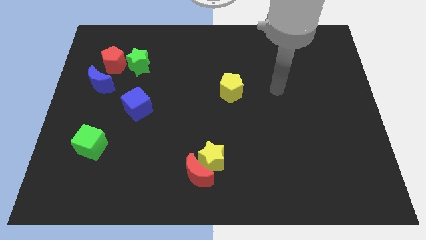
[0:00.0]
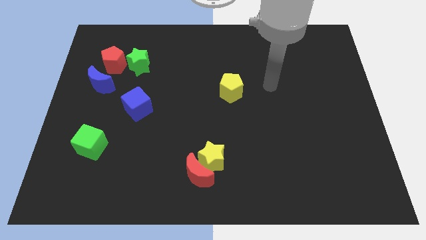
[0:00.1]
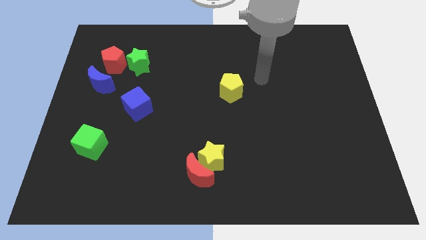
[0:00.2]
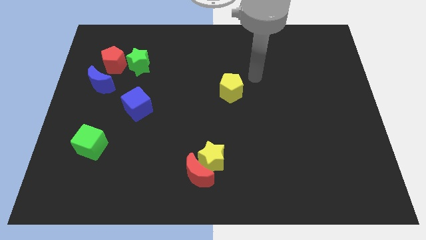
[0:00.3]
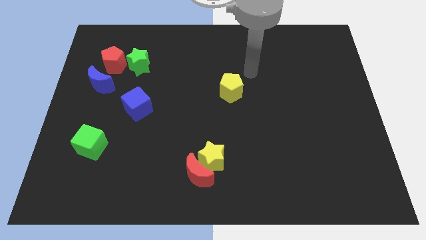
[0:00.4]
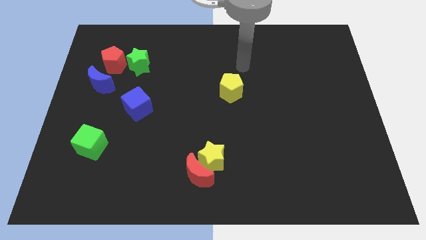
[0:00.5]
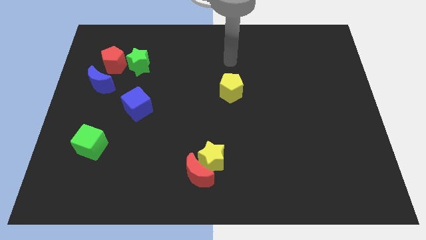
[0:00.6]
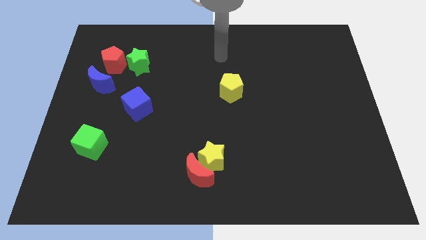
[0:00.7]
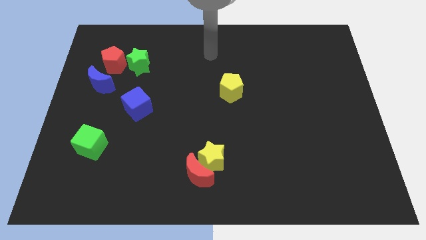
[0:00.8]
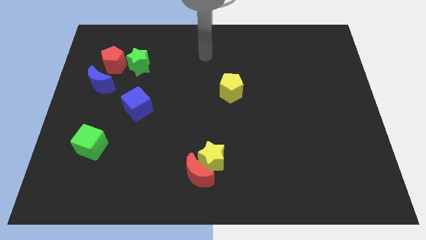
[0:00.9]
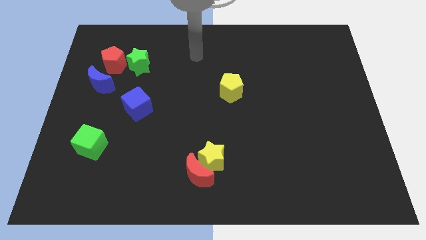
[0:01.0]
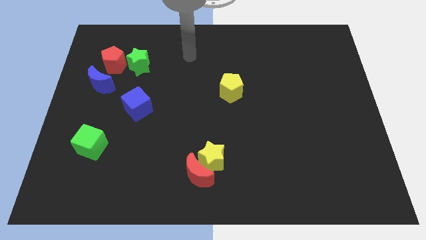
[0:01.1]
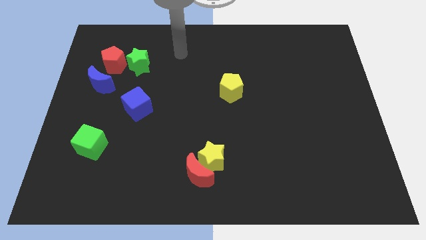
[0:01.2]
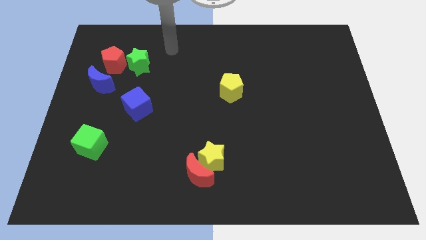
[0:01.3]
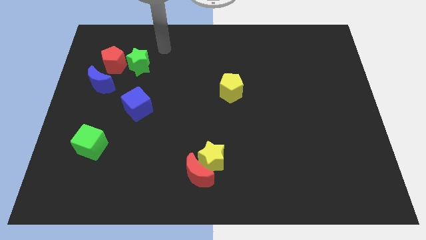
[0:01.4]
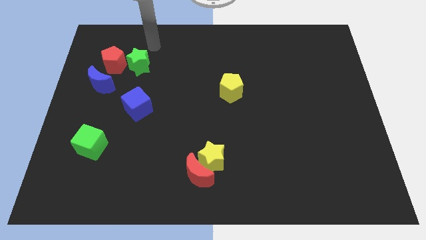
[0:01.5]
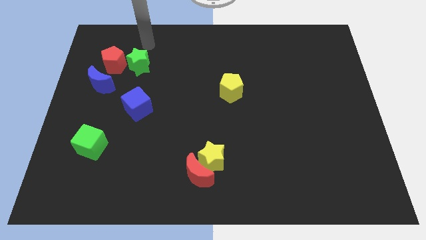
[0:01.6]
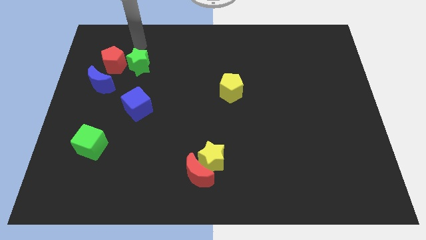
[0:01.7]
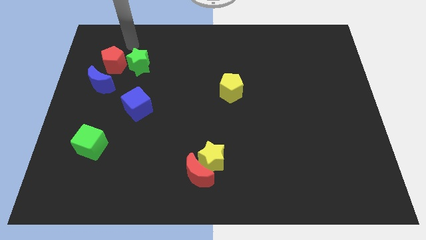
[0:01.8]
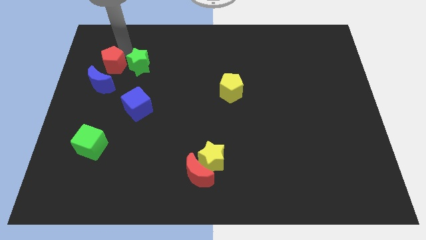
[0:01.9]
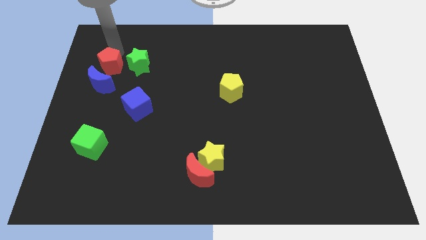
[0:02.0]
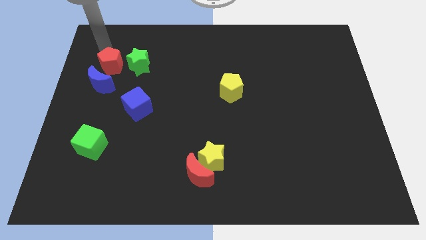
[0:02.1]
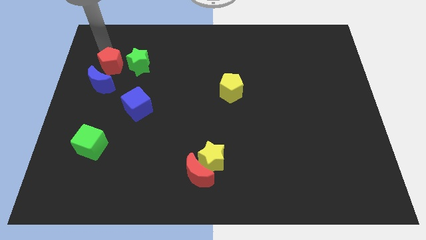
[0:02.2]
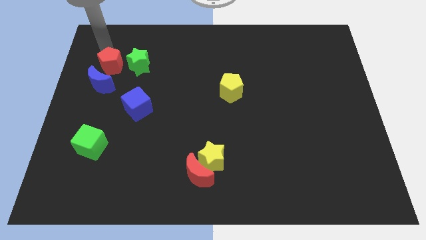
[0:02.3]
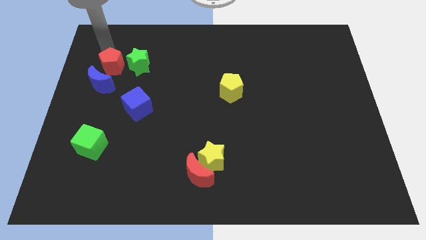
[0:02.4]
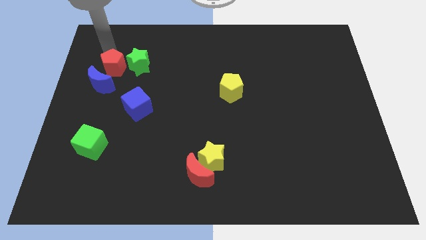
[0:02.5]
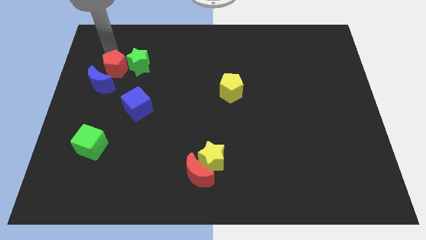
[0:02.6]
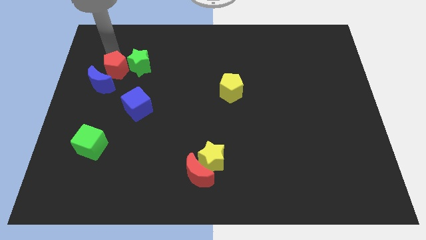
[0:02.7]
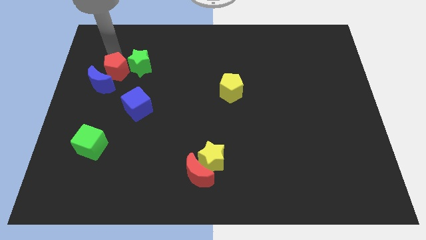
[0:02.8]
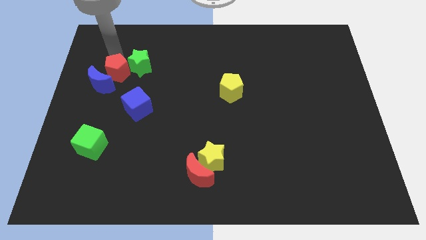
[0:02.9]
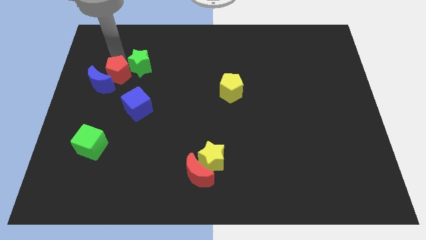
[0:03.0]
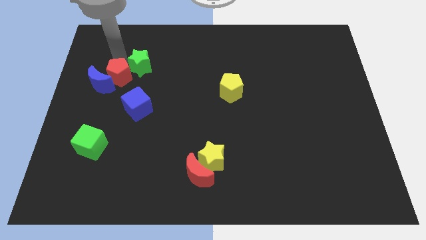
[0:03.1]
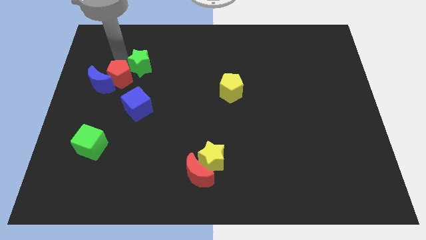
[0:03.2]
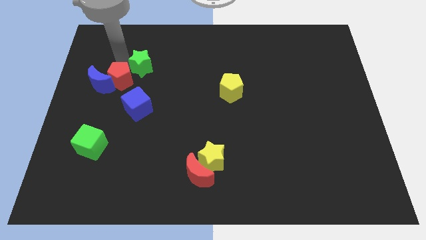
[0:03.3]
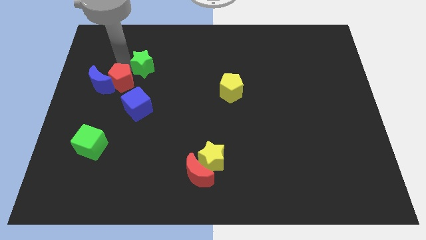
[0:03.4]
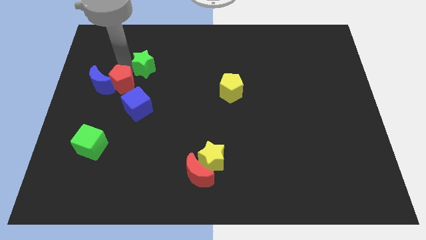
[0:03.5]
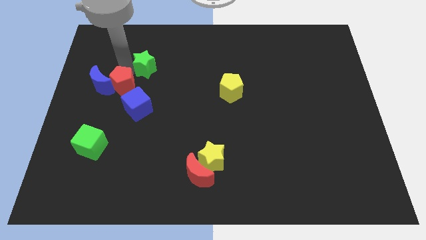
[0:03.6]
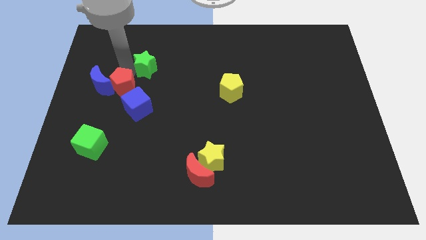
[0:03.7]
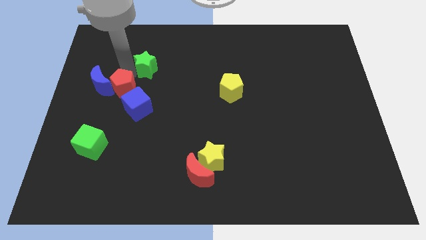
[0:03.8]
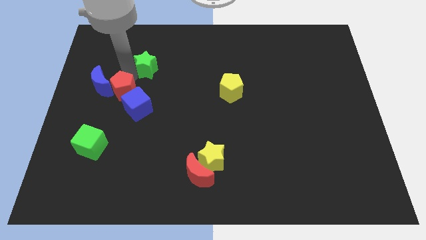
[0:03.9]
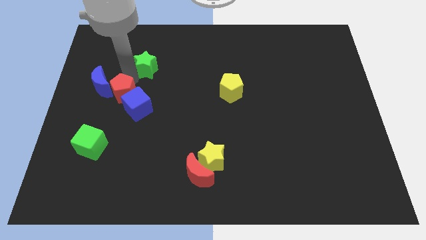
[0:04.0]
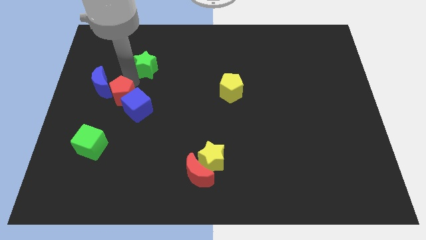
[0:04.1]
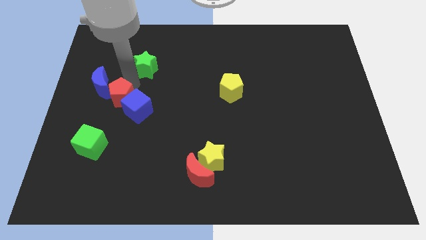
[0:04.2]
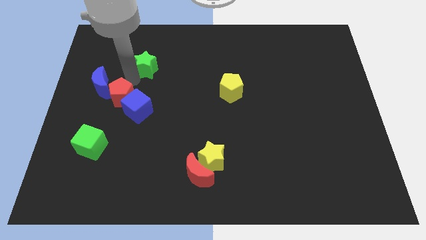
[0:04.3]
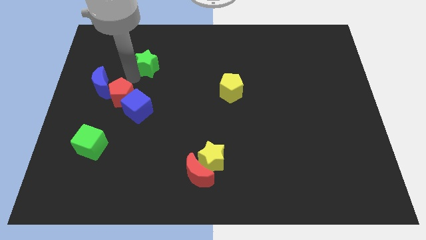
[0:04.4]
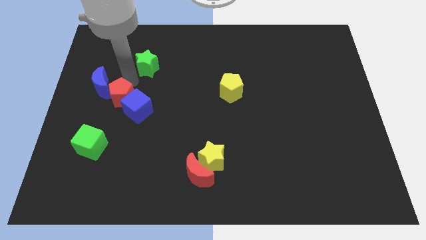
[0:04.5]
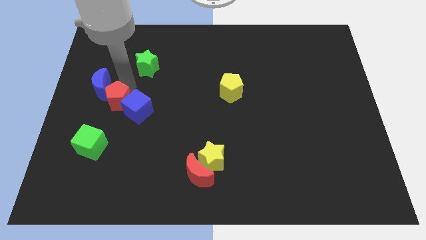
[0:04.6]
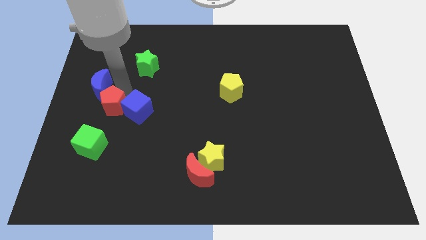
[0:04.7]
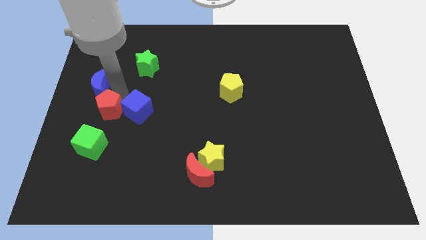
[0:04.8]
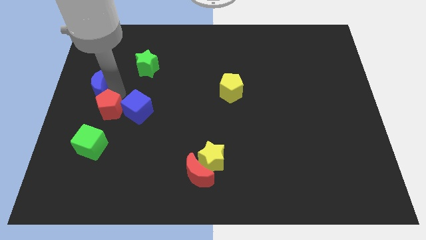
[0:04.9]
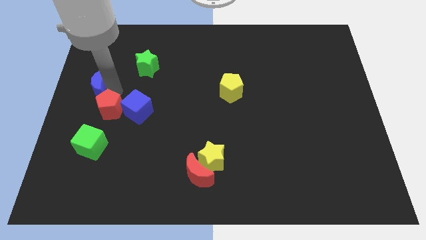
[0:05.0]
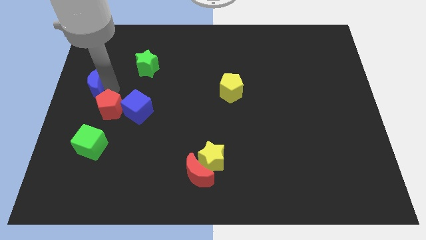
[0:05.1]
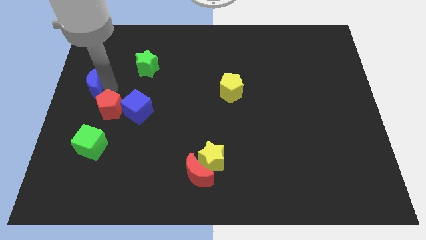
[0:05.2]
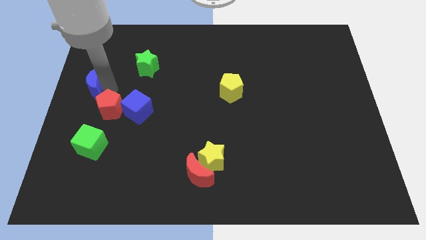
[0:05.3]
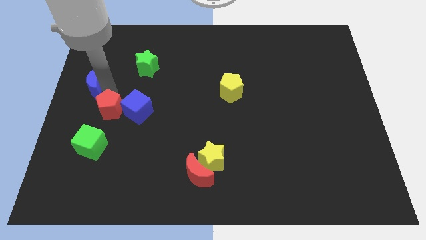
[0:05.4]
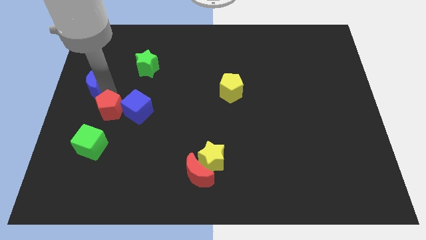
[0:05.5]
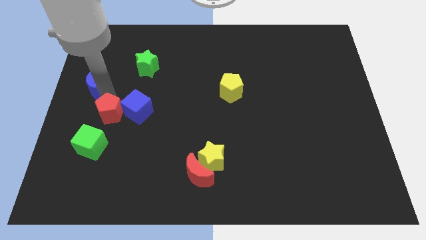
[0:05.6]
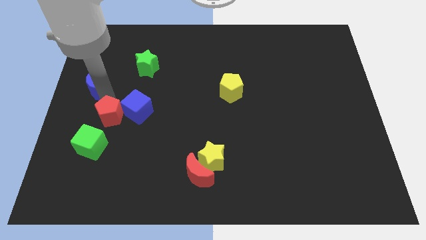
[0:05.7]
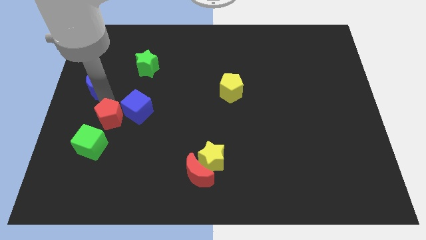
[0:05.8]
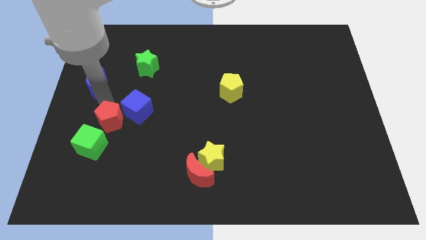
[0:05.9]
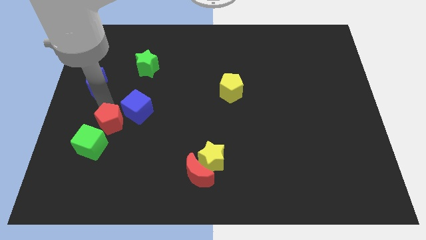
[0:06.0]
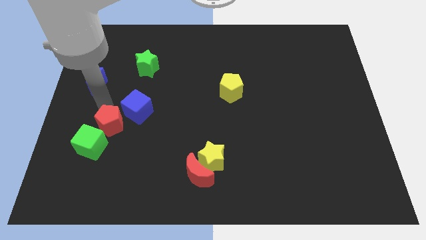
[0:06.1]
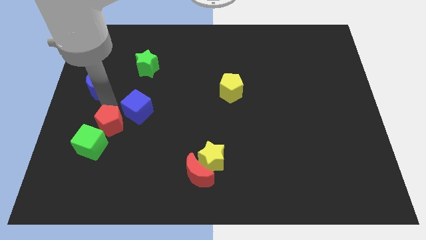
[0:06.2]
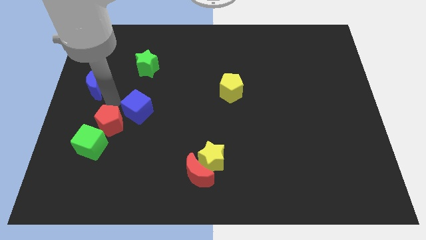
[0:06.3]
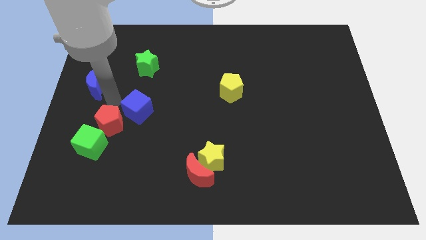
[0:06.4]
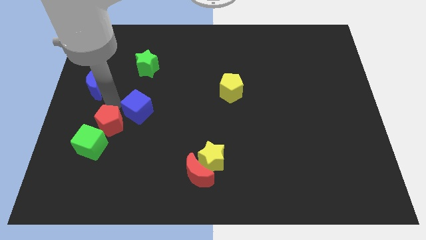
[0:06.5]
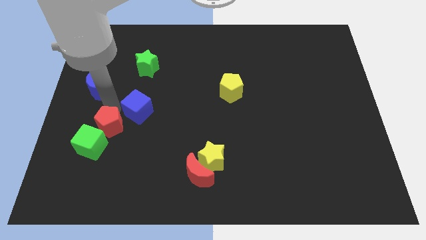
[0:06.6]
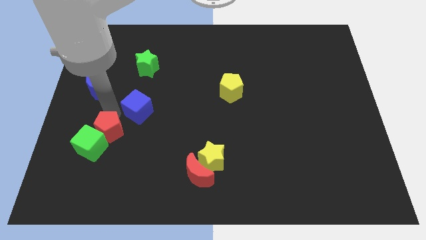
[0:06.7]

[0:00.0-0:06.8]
push the red pentagon downwards

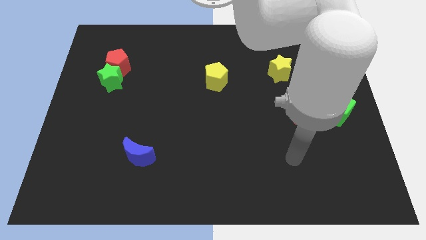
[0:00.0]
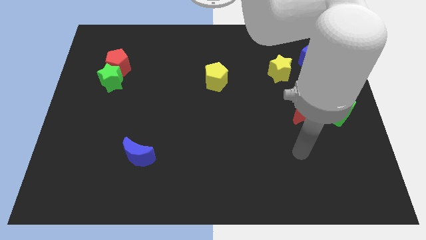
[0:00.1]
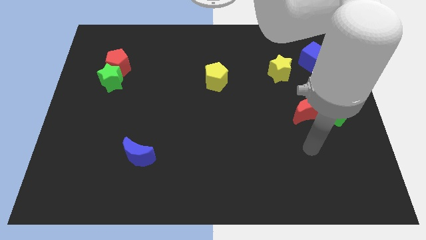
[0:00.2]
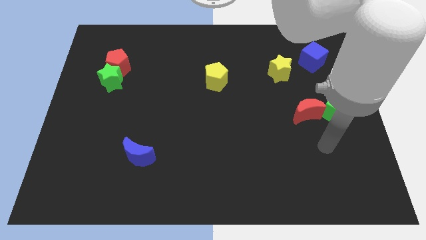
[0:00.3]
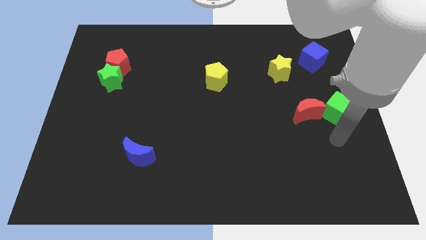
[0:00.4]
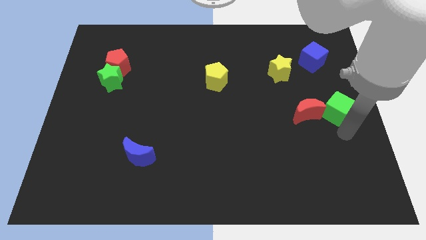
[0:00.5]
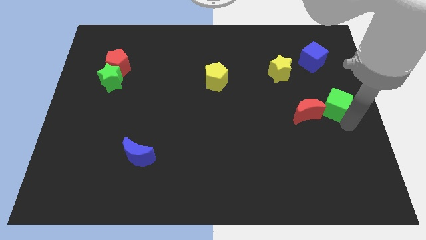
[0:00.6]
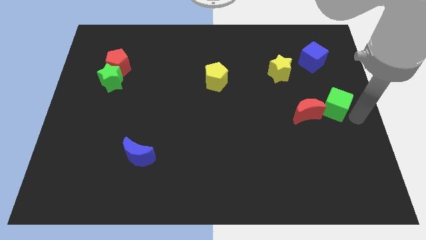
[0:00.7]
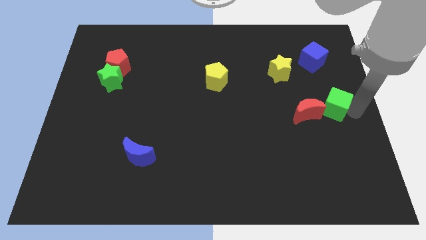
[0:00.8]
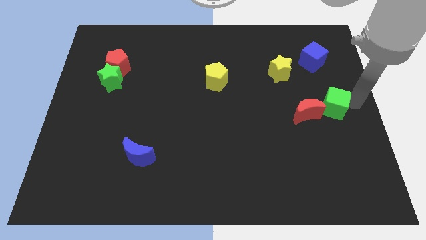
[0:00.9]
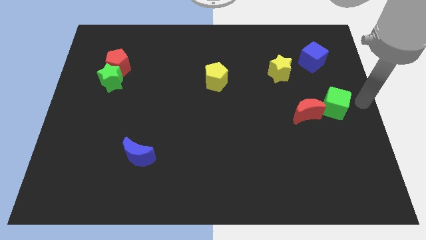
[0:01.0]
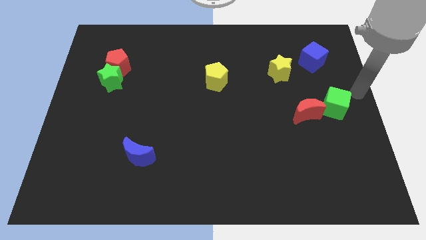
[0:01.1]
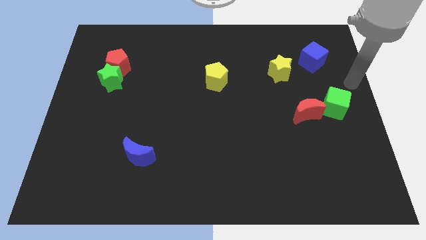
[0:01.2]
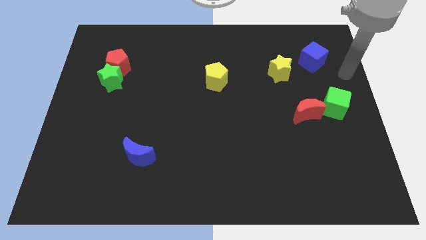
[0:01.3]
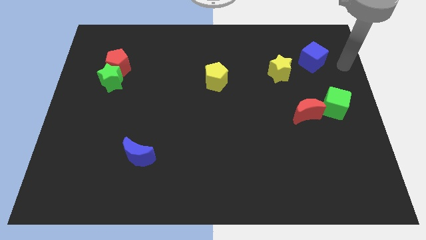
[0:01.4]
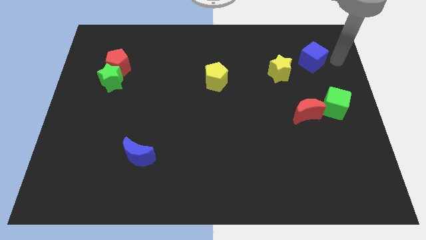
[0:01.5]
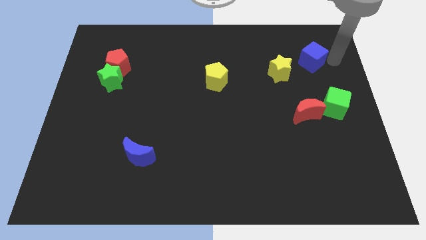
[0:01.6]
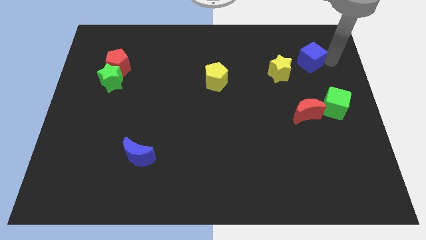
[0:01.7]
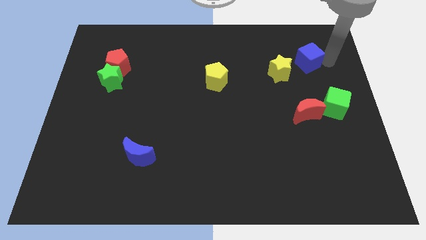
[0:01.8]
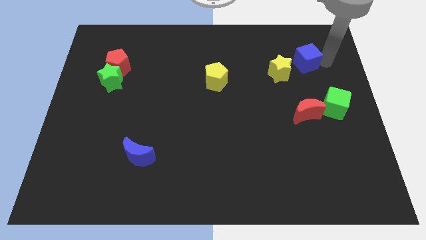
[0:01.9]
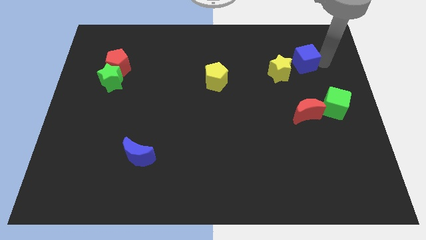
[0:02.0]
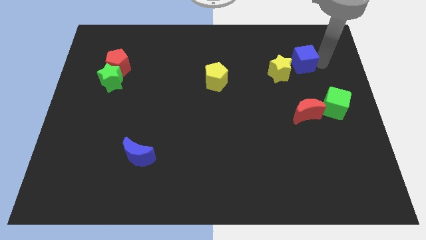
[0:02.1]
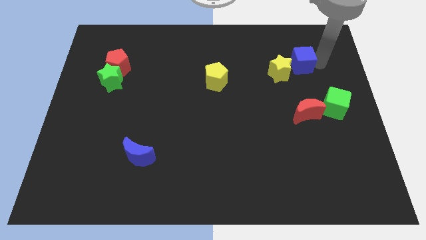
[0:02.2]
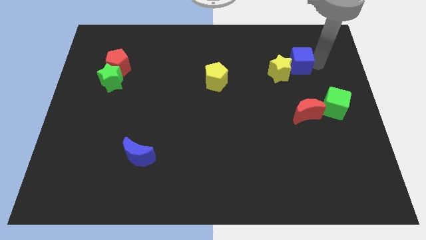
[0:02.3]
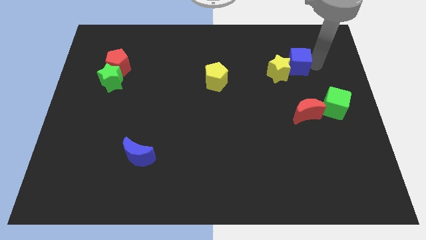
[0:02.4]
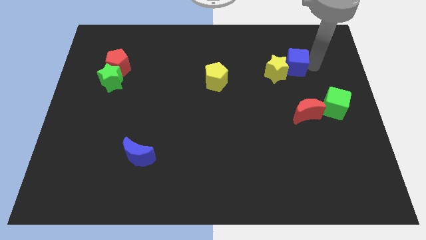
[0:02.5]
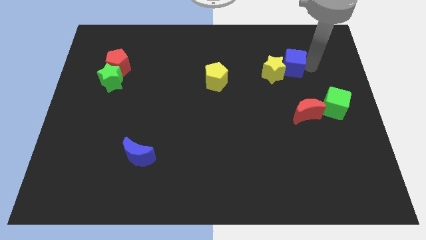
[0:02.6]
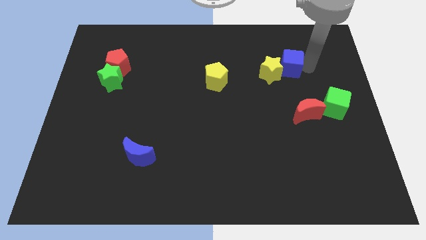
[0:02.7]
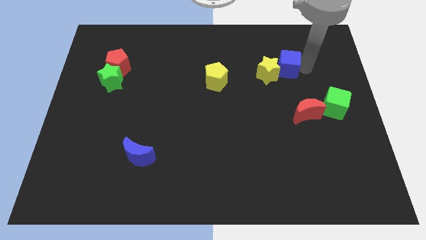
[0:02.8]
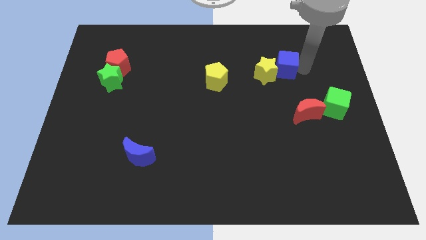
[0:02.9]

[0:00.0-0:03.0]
slide the blue cube left a bit
